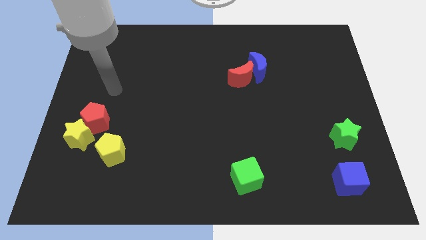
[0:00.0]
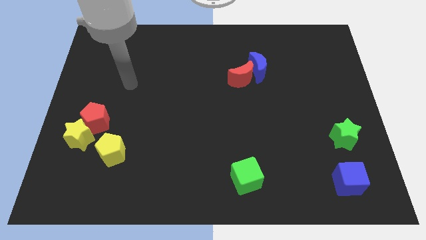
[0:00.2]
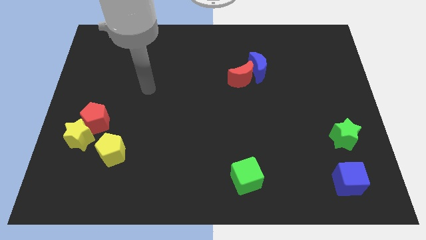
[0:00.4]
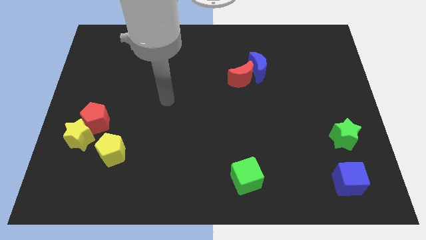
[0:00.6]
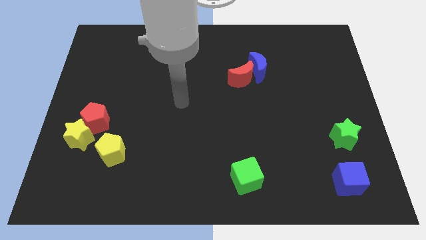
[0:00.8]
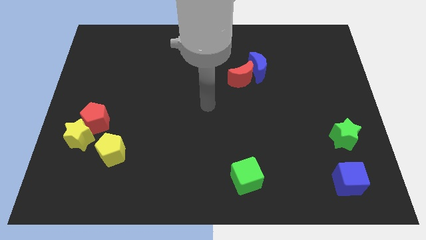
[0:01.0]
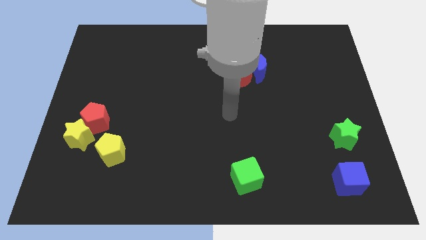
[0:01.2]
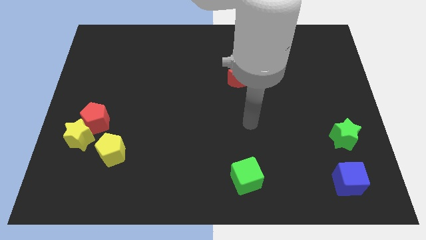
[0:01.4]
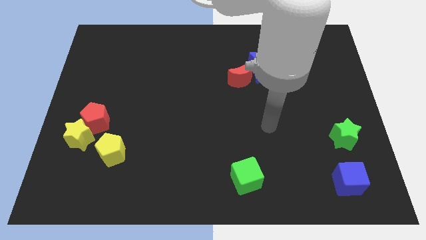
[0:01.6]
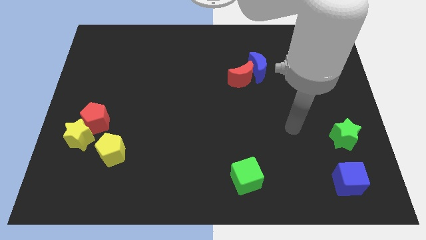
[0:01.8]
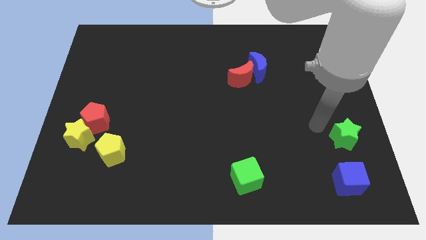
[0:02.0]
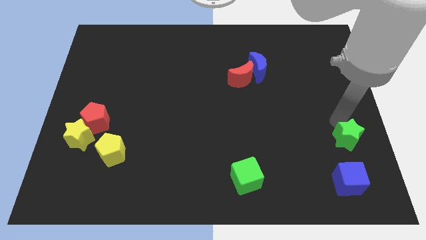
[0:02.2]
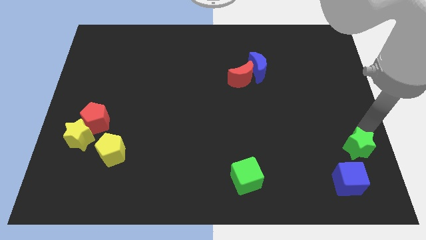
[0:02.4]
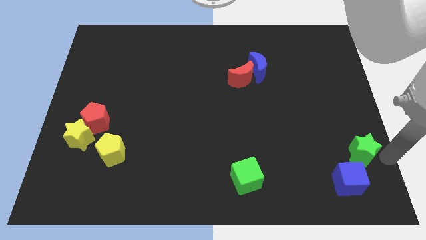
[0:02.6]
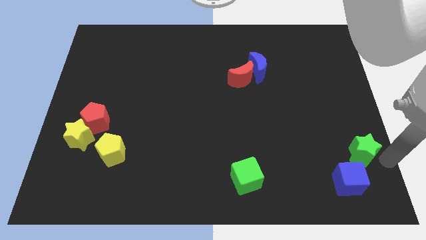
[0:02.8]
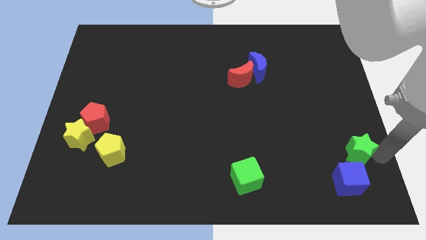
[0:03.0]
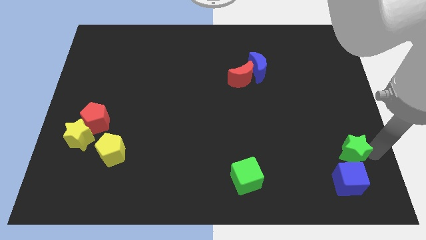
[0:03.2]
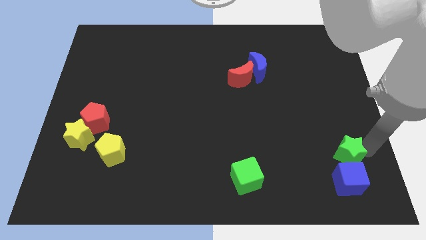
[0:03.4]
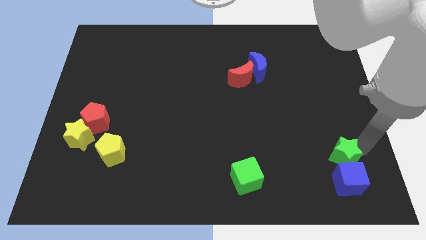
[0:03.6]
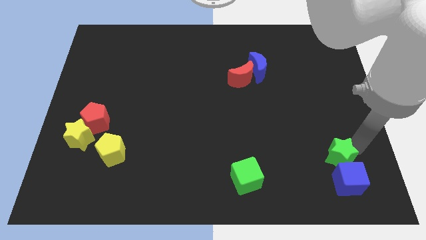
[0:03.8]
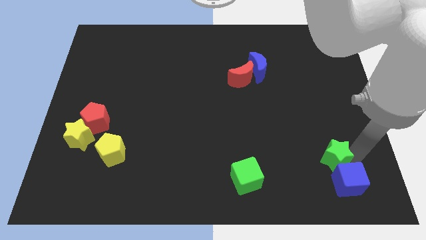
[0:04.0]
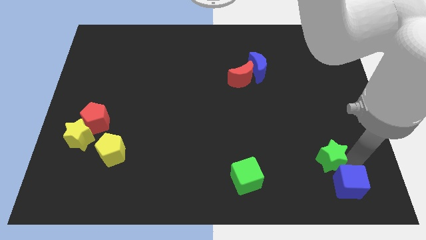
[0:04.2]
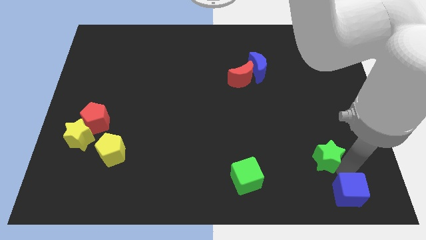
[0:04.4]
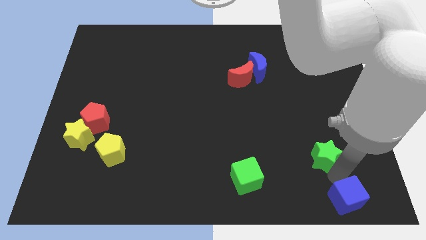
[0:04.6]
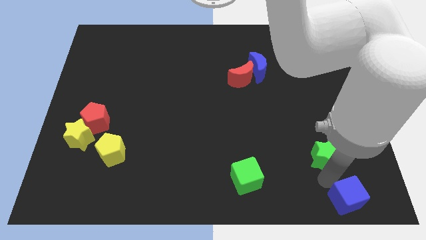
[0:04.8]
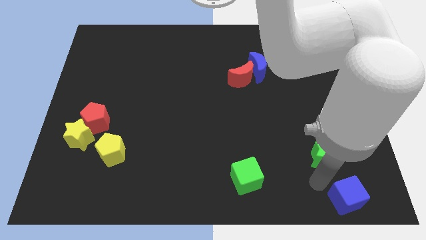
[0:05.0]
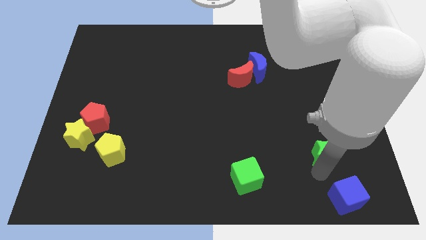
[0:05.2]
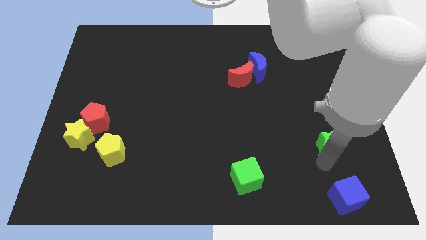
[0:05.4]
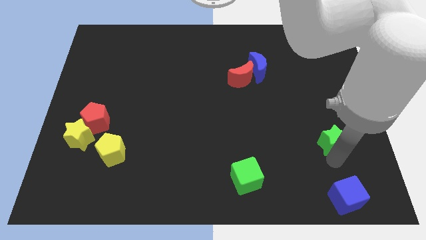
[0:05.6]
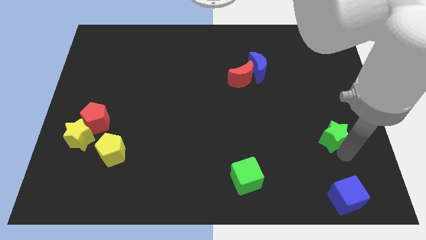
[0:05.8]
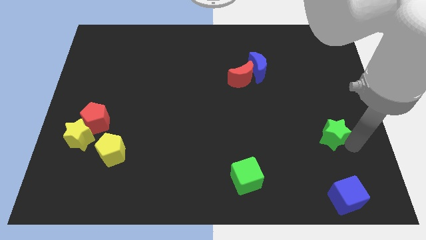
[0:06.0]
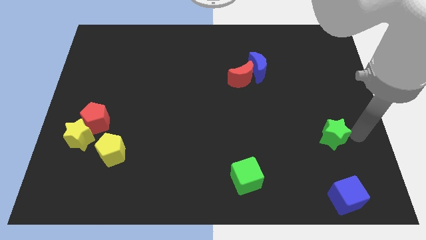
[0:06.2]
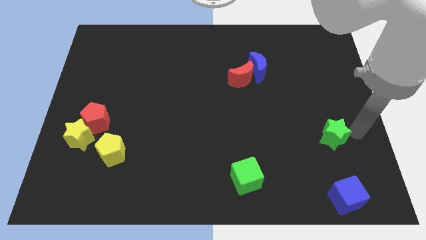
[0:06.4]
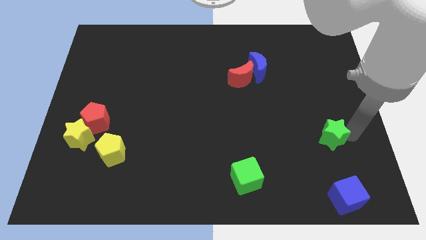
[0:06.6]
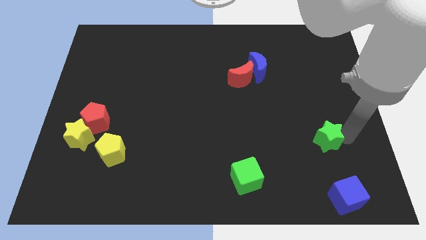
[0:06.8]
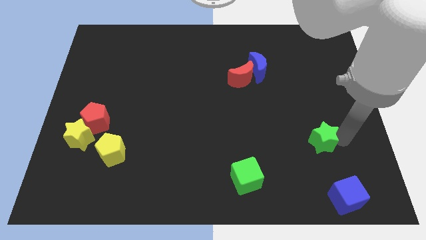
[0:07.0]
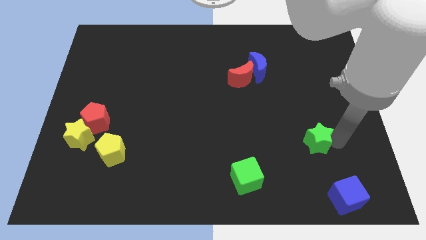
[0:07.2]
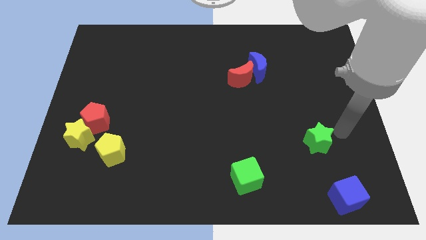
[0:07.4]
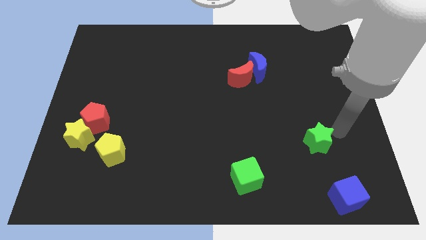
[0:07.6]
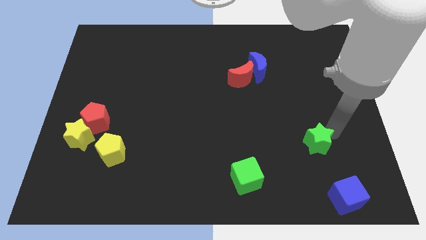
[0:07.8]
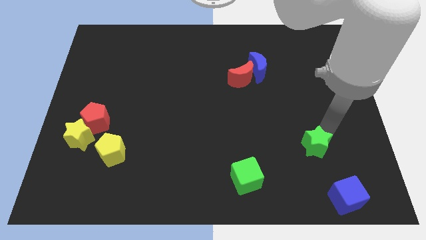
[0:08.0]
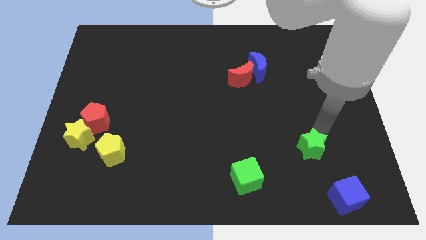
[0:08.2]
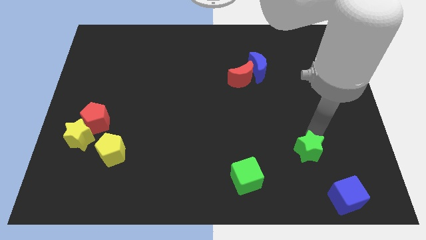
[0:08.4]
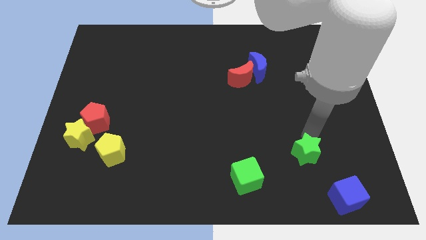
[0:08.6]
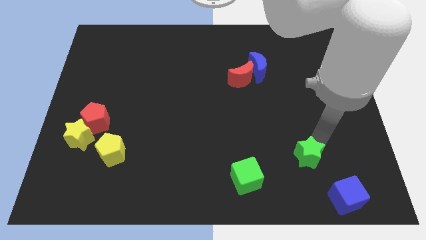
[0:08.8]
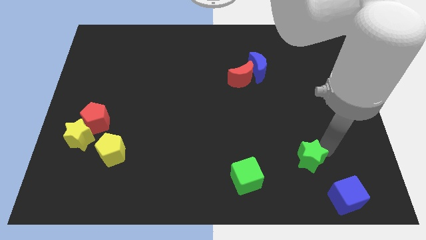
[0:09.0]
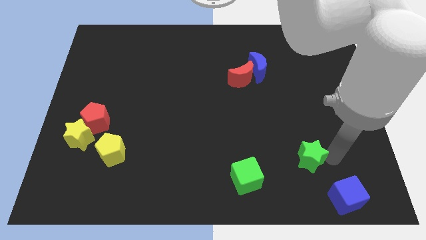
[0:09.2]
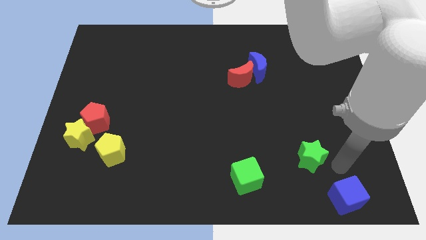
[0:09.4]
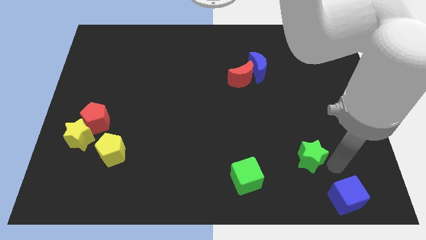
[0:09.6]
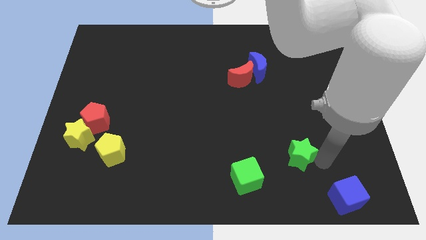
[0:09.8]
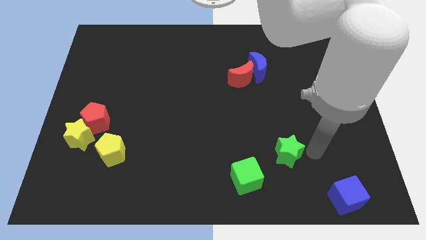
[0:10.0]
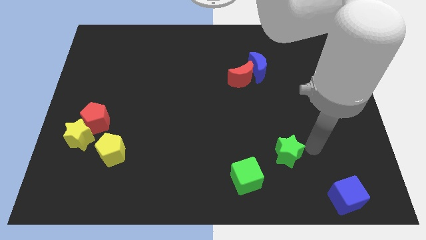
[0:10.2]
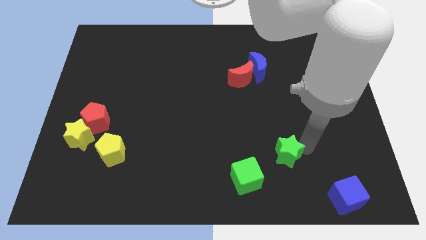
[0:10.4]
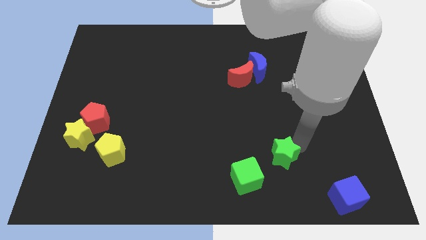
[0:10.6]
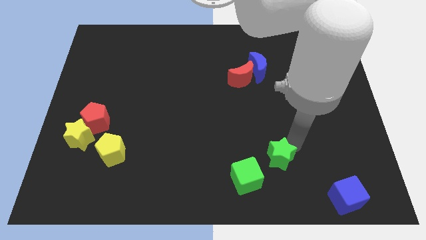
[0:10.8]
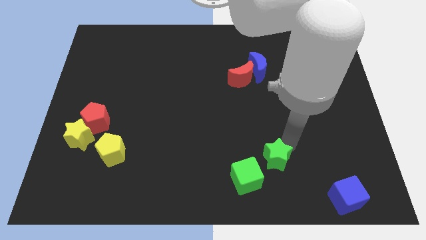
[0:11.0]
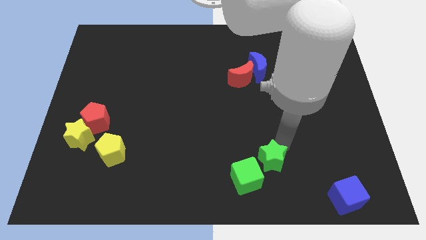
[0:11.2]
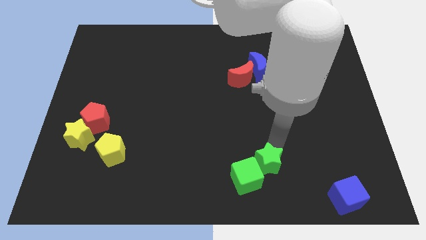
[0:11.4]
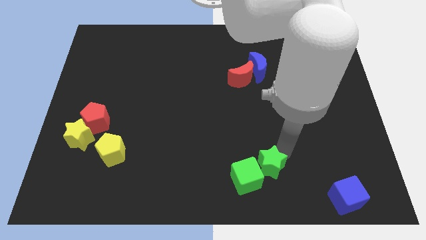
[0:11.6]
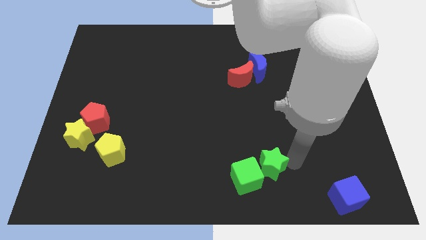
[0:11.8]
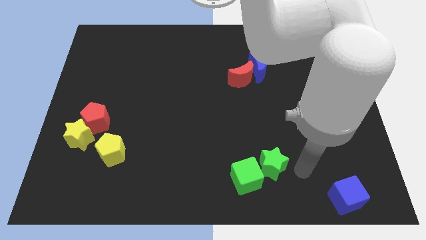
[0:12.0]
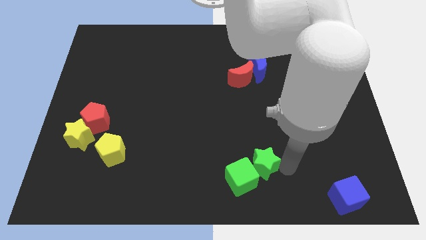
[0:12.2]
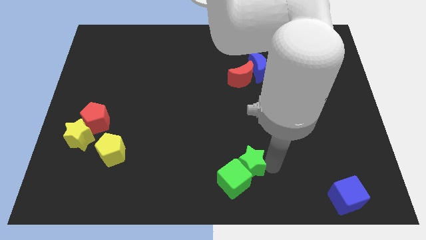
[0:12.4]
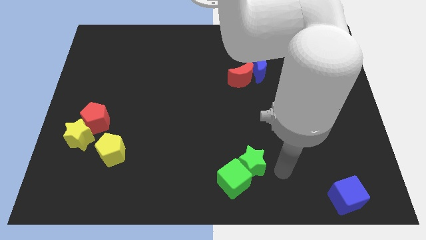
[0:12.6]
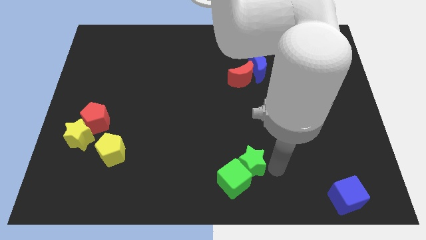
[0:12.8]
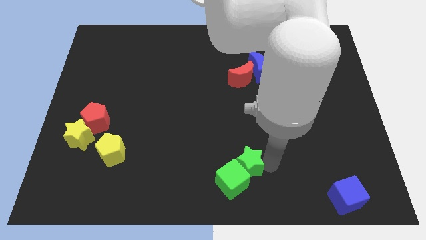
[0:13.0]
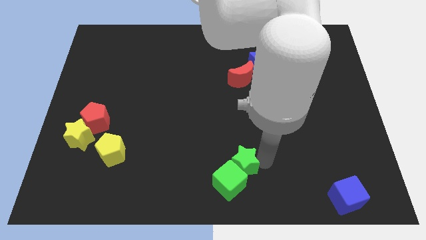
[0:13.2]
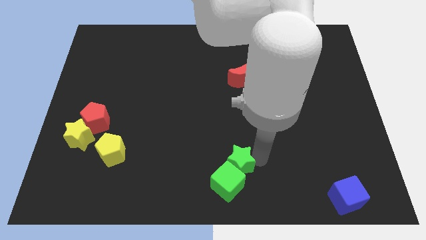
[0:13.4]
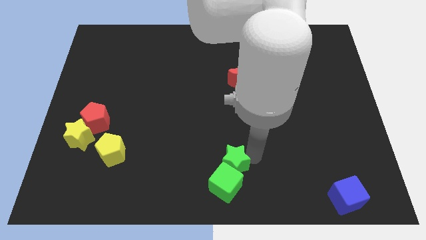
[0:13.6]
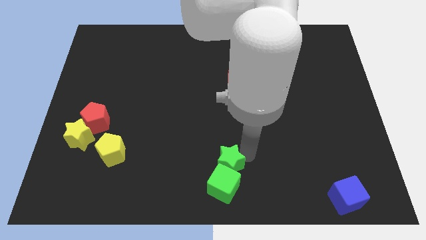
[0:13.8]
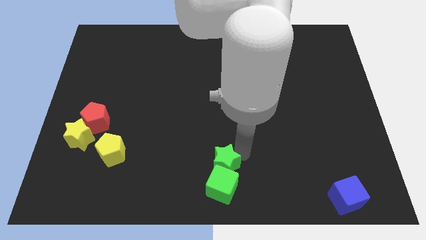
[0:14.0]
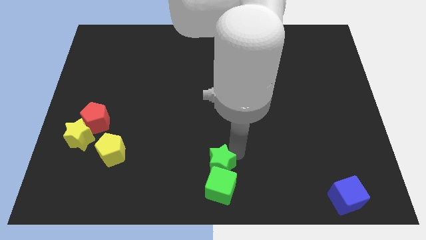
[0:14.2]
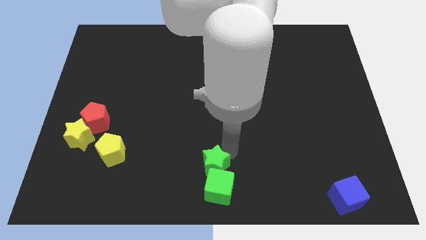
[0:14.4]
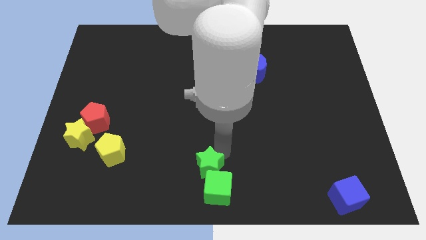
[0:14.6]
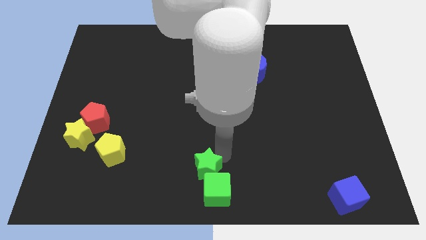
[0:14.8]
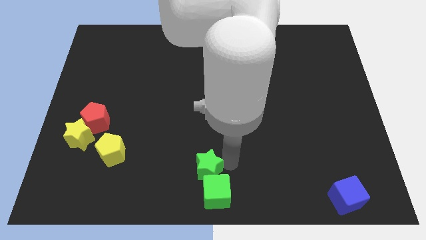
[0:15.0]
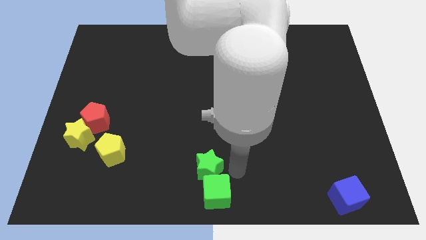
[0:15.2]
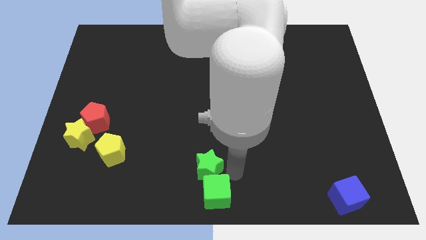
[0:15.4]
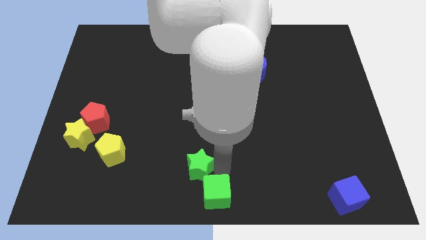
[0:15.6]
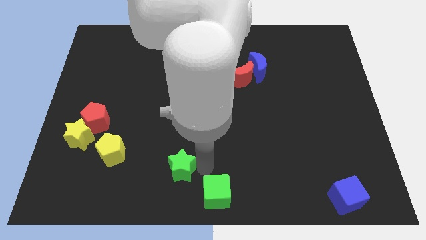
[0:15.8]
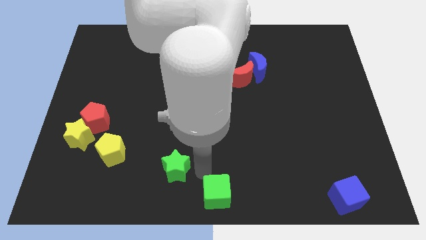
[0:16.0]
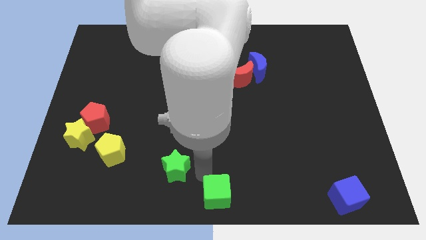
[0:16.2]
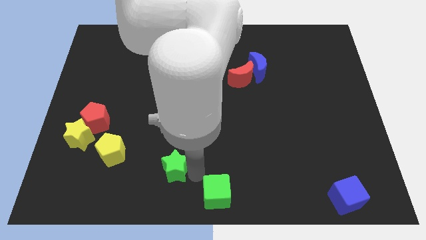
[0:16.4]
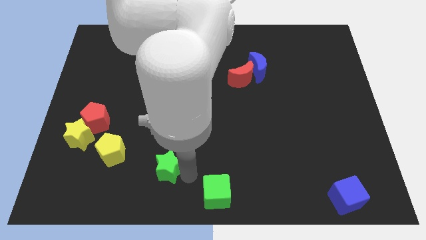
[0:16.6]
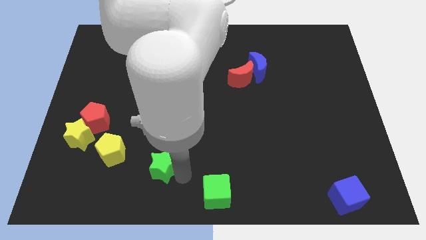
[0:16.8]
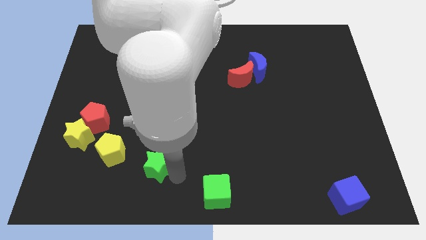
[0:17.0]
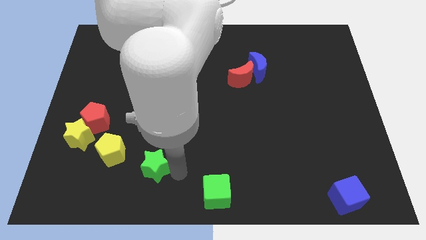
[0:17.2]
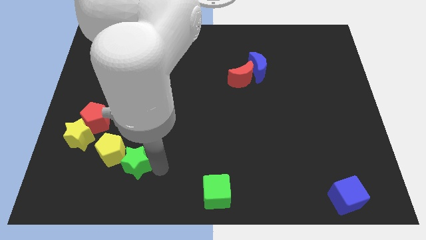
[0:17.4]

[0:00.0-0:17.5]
move the green star next to the yellow pentagon
